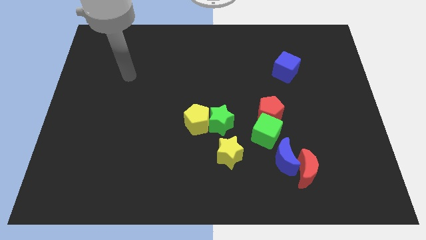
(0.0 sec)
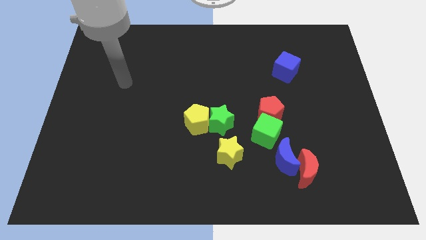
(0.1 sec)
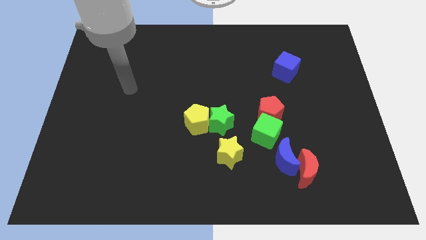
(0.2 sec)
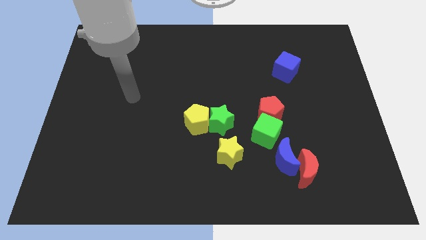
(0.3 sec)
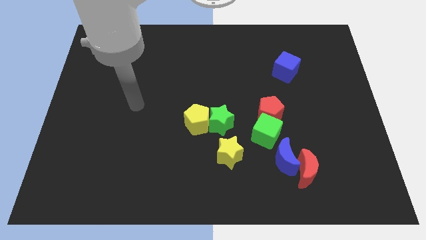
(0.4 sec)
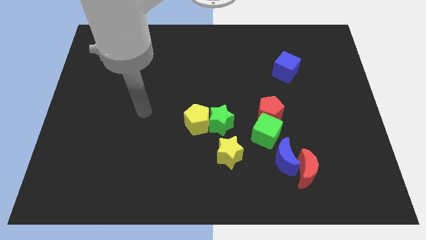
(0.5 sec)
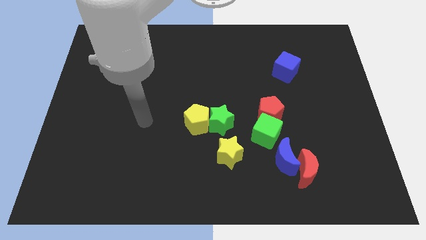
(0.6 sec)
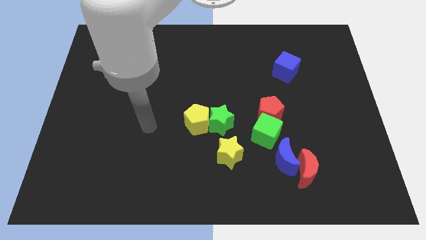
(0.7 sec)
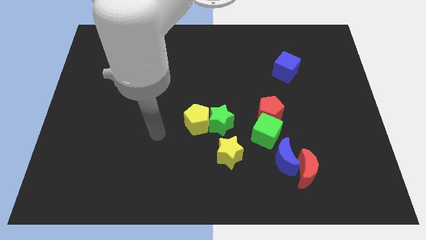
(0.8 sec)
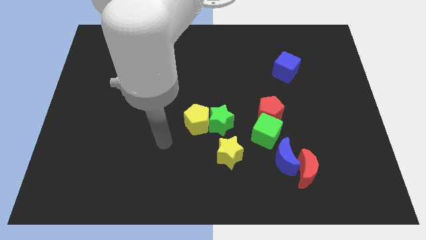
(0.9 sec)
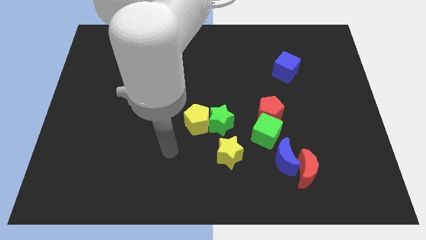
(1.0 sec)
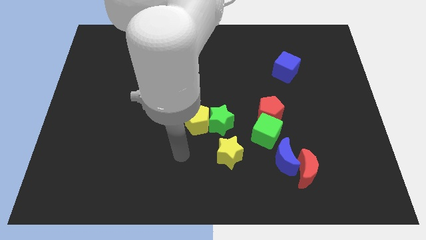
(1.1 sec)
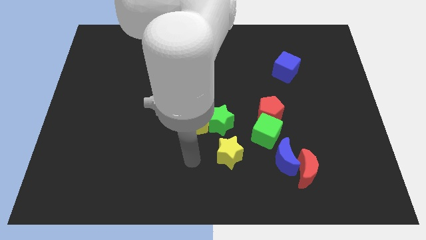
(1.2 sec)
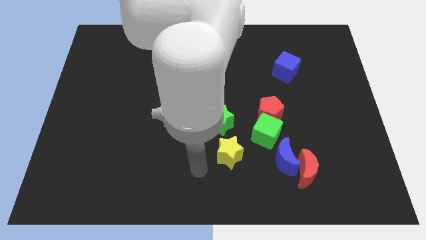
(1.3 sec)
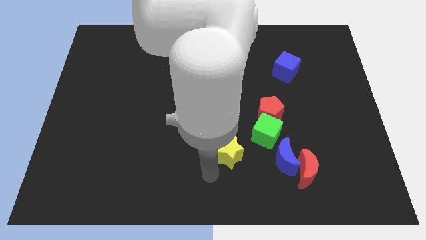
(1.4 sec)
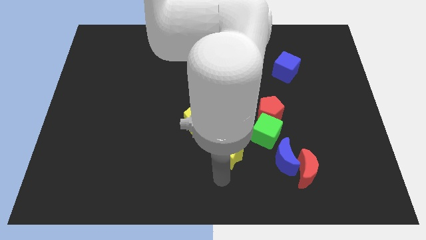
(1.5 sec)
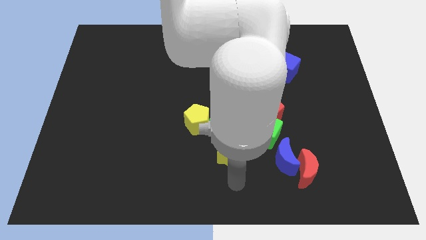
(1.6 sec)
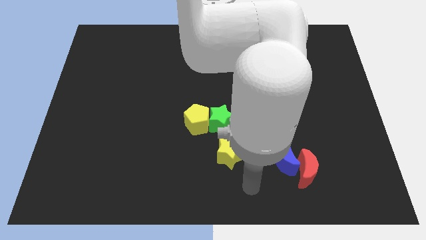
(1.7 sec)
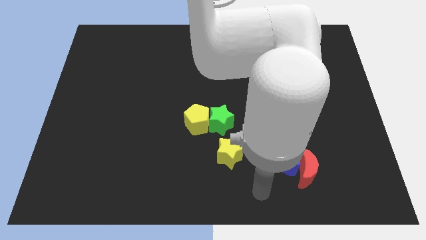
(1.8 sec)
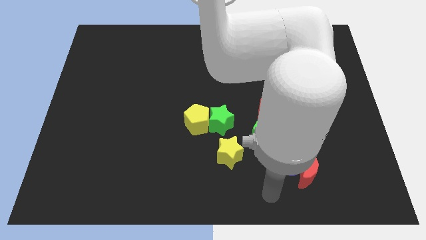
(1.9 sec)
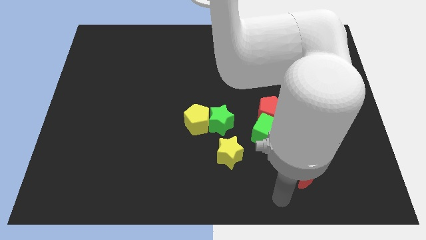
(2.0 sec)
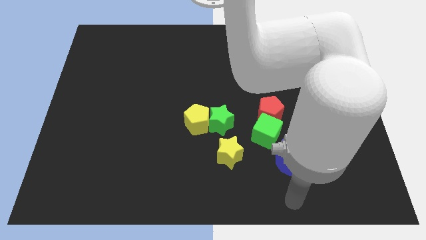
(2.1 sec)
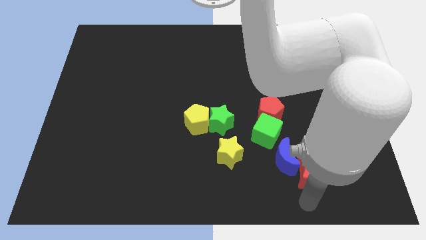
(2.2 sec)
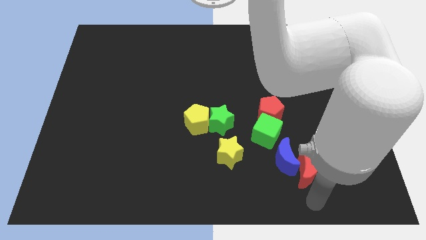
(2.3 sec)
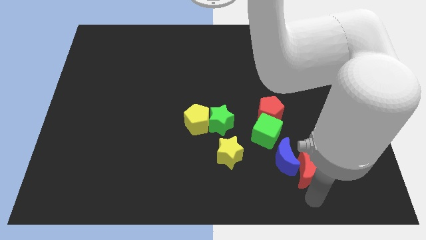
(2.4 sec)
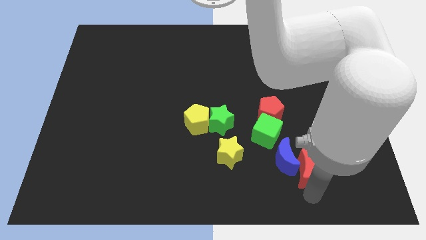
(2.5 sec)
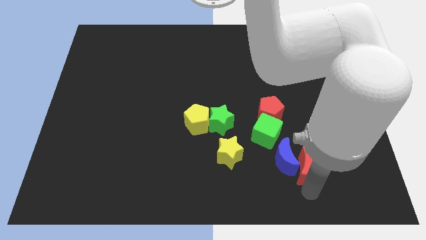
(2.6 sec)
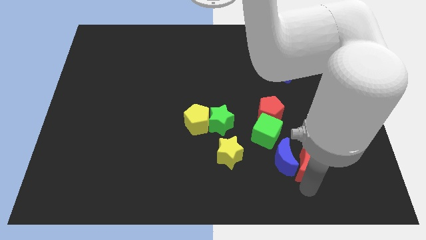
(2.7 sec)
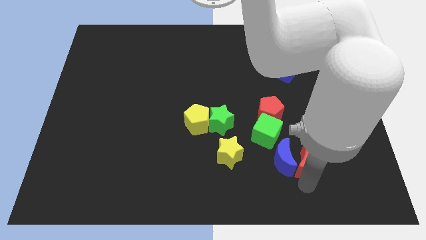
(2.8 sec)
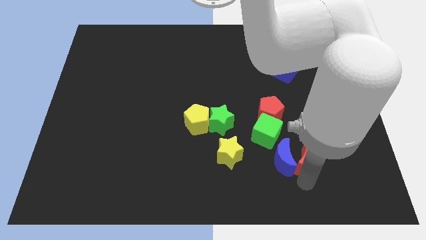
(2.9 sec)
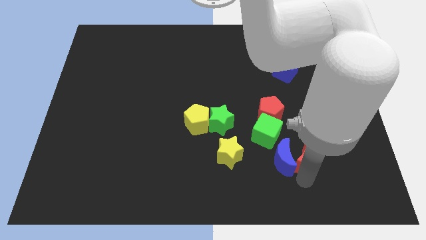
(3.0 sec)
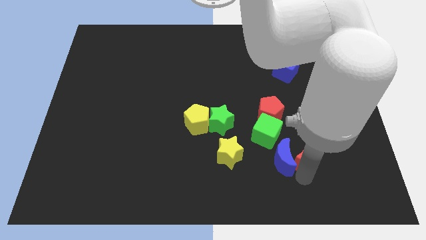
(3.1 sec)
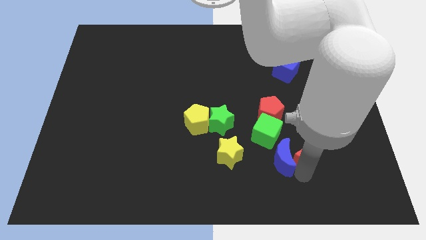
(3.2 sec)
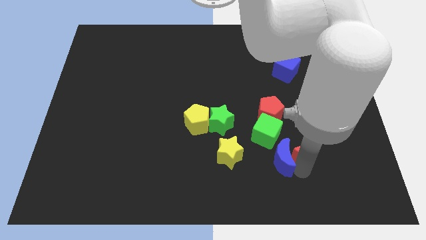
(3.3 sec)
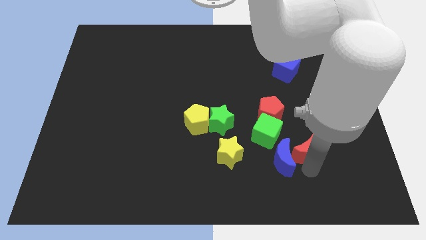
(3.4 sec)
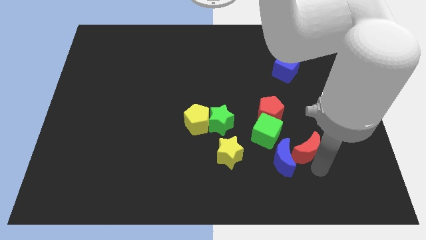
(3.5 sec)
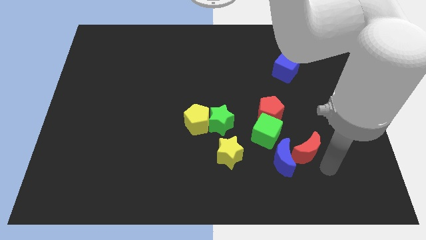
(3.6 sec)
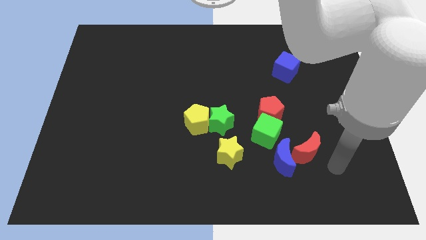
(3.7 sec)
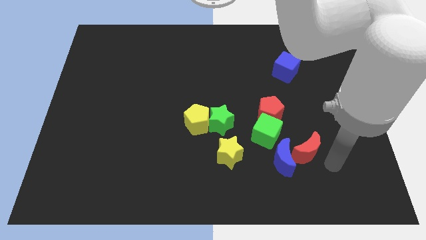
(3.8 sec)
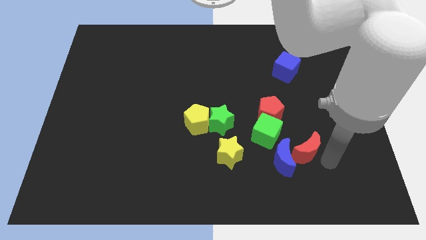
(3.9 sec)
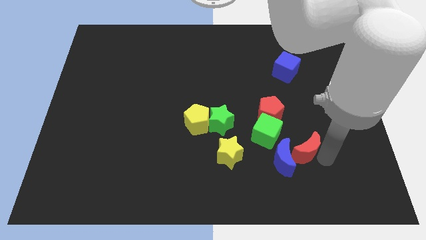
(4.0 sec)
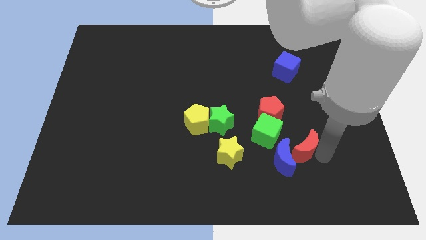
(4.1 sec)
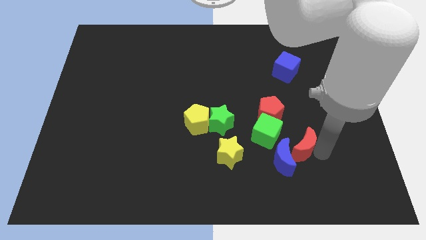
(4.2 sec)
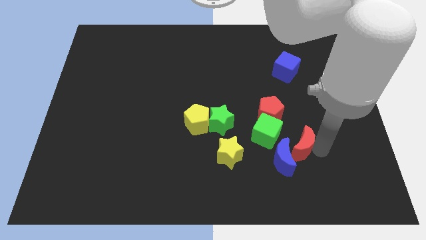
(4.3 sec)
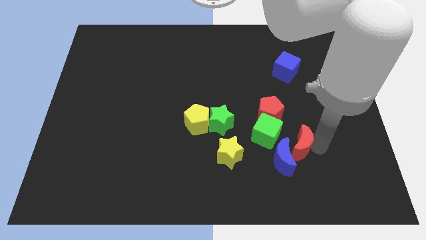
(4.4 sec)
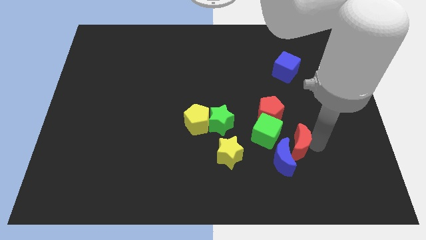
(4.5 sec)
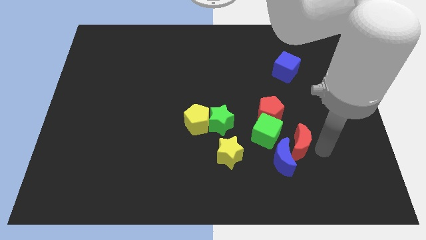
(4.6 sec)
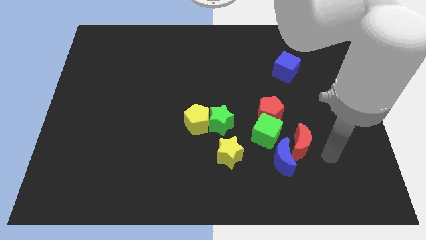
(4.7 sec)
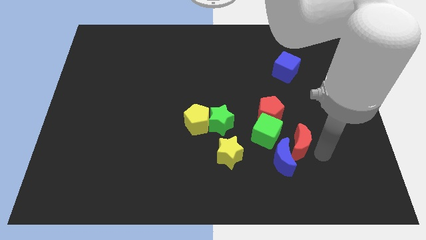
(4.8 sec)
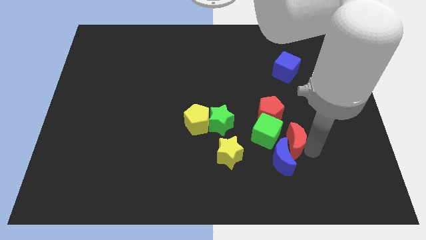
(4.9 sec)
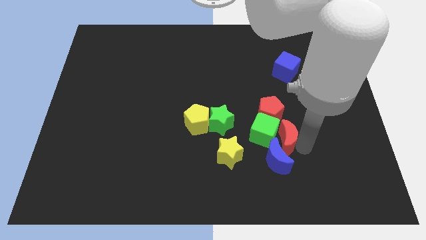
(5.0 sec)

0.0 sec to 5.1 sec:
put the red moon towards the green cube

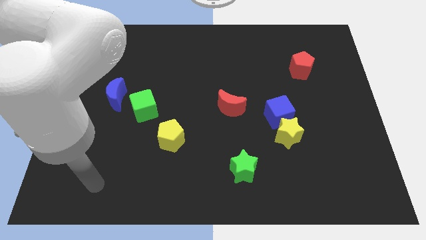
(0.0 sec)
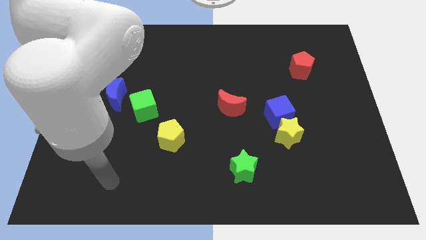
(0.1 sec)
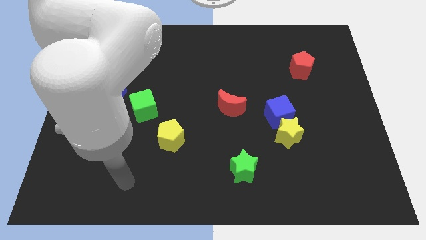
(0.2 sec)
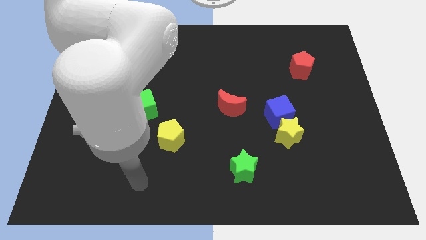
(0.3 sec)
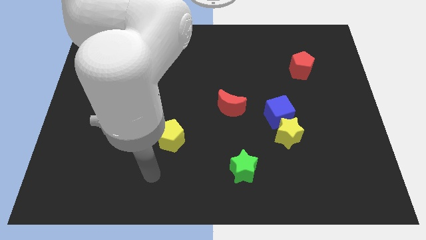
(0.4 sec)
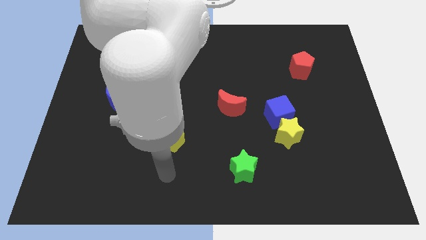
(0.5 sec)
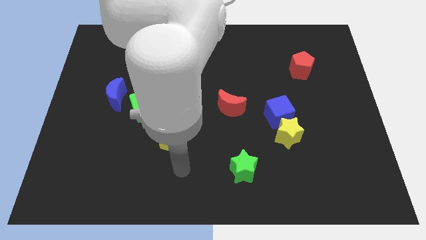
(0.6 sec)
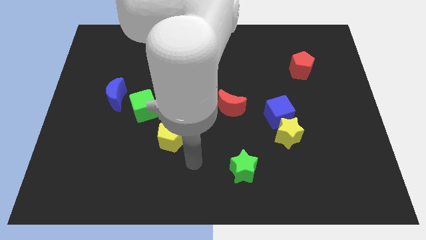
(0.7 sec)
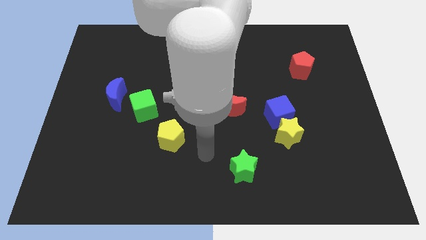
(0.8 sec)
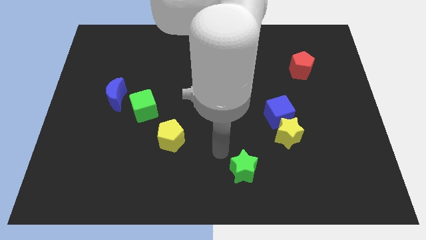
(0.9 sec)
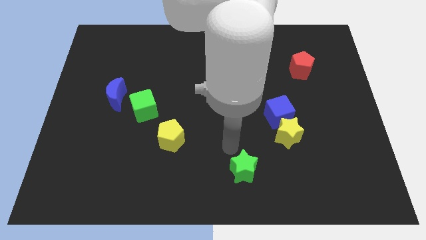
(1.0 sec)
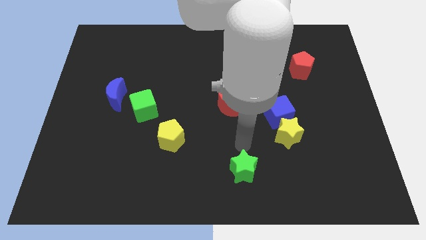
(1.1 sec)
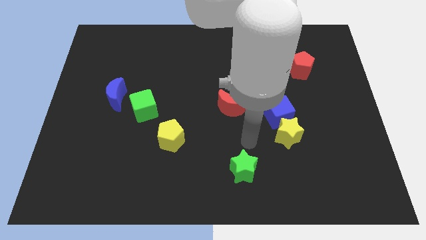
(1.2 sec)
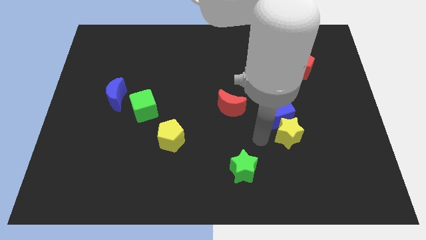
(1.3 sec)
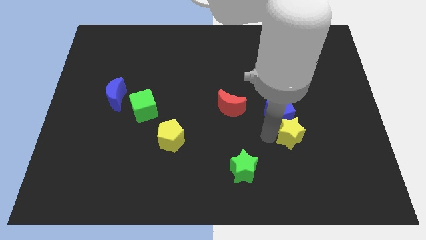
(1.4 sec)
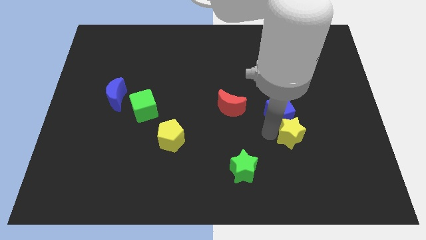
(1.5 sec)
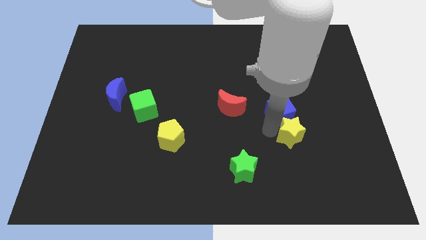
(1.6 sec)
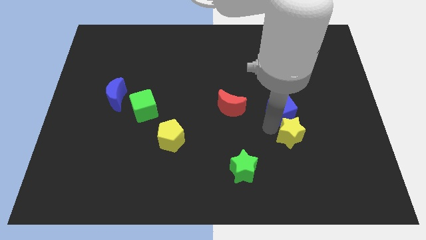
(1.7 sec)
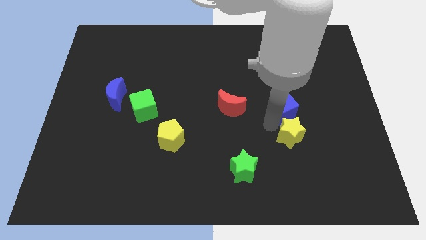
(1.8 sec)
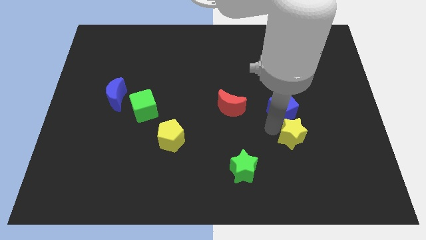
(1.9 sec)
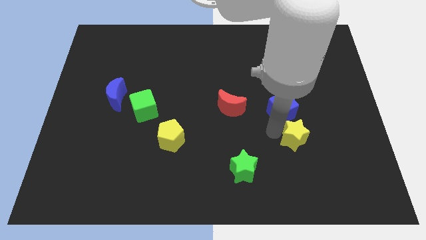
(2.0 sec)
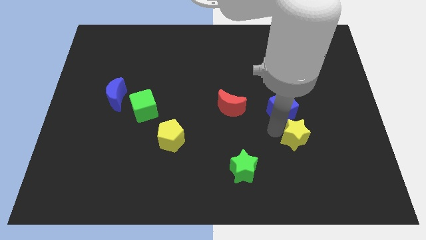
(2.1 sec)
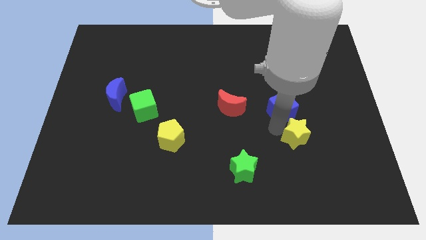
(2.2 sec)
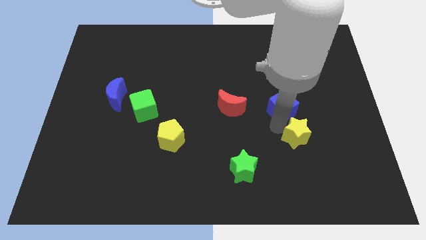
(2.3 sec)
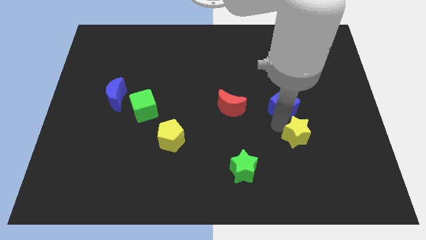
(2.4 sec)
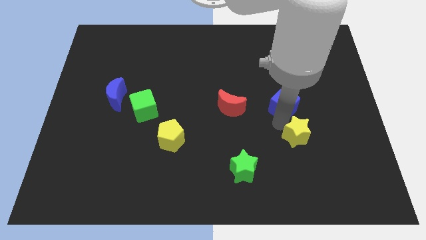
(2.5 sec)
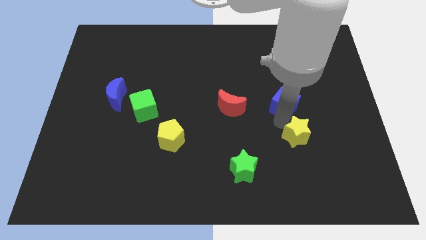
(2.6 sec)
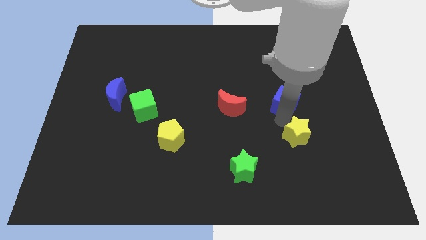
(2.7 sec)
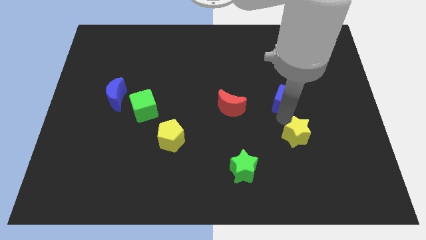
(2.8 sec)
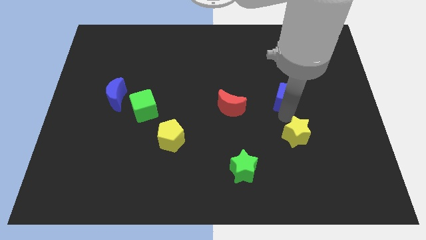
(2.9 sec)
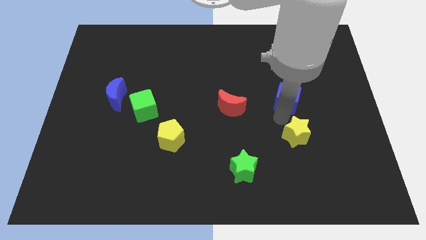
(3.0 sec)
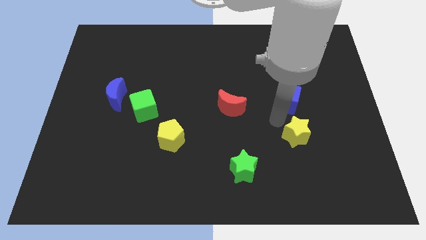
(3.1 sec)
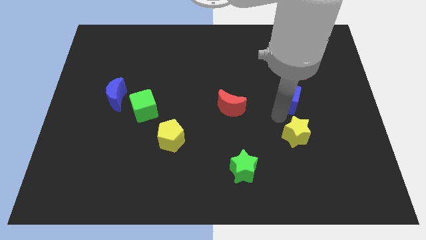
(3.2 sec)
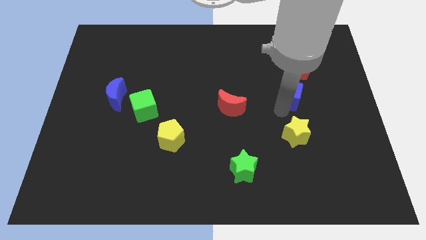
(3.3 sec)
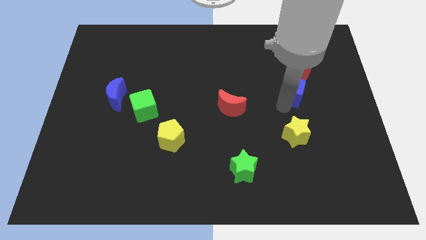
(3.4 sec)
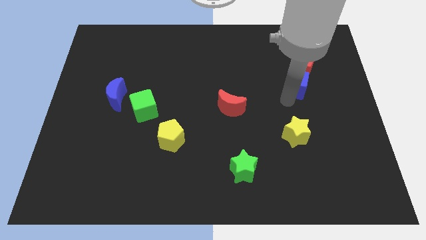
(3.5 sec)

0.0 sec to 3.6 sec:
slide the blue cube to the red pentagon
